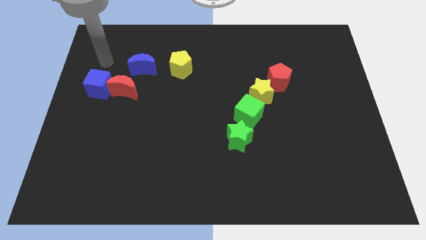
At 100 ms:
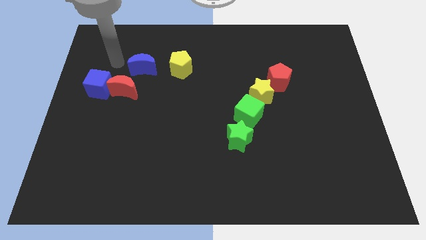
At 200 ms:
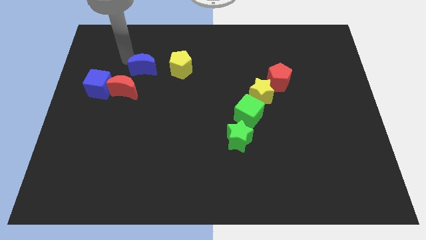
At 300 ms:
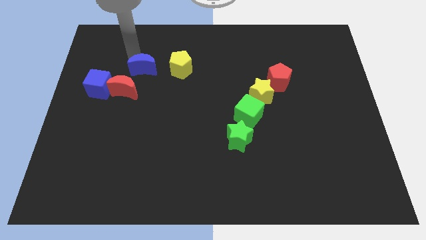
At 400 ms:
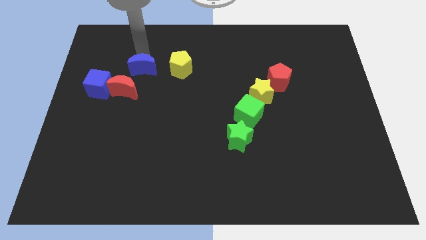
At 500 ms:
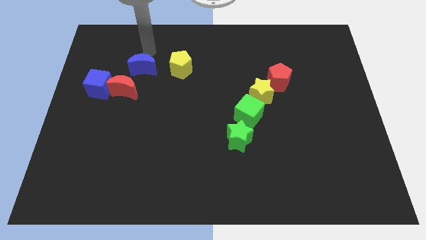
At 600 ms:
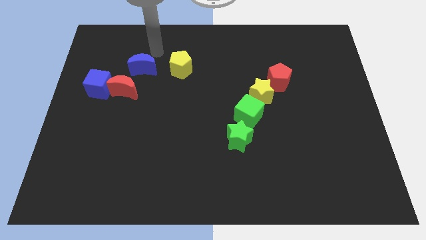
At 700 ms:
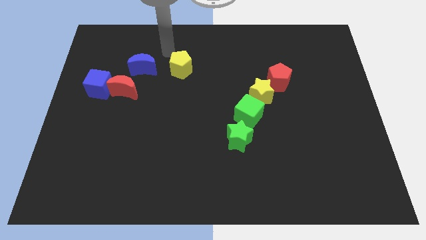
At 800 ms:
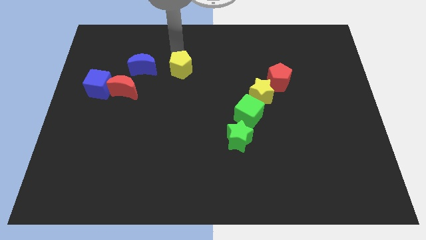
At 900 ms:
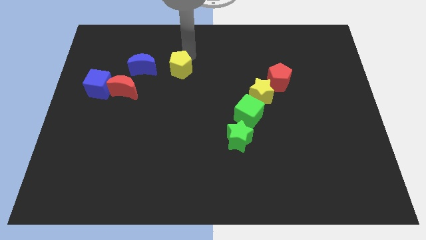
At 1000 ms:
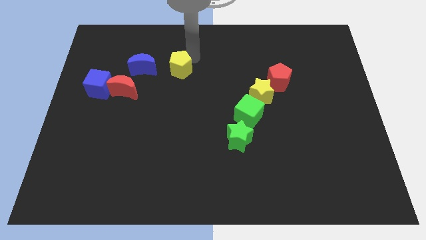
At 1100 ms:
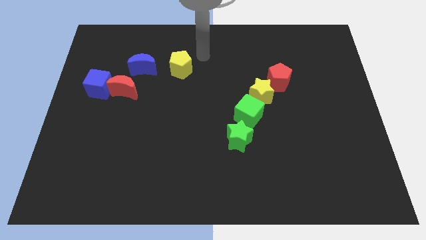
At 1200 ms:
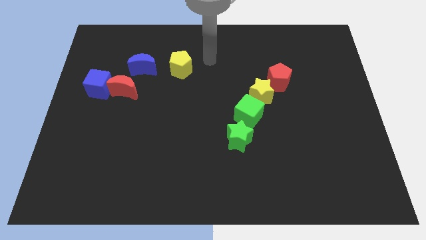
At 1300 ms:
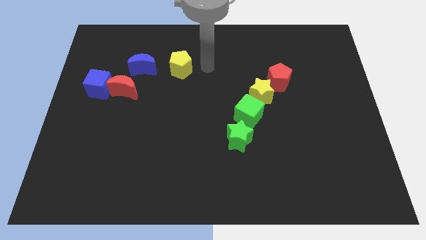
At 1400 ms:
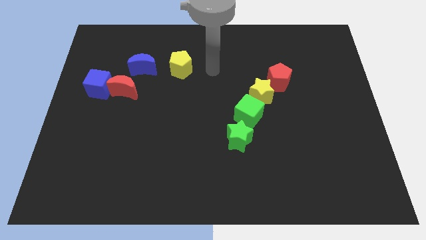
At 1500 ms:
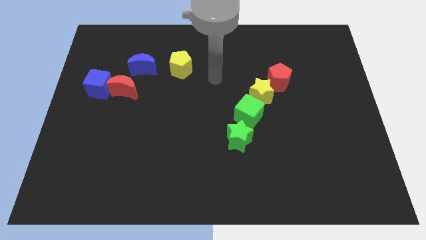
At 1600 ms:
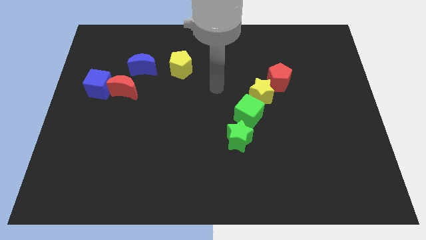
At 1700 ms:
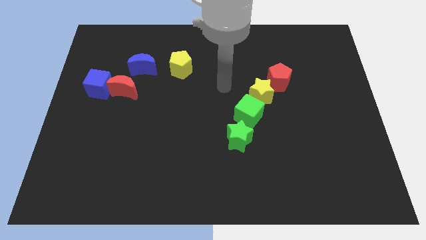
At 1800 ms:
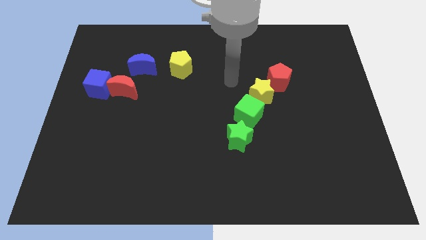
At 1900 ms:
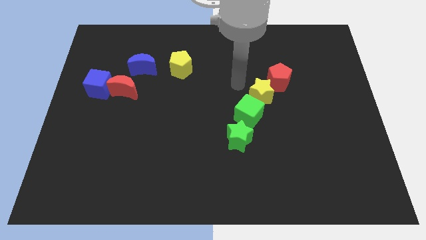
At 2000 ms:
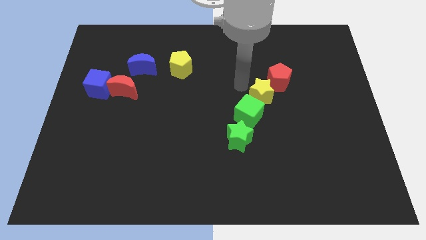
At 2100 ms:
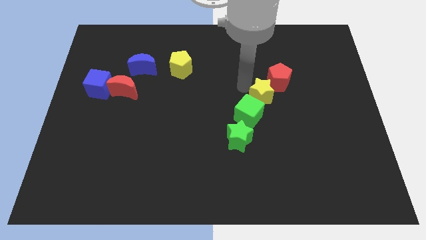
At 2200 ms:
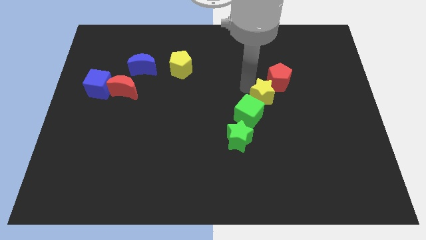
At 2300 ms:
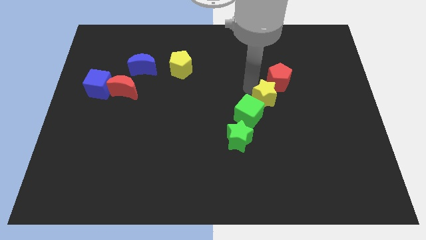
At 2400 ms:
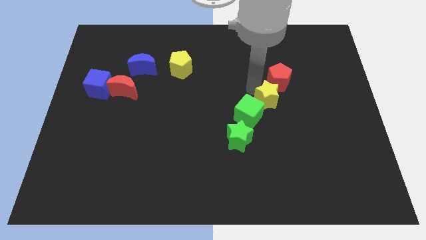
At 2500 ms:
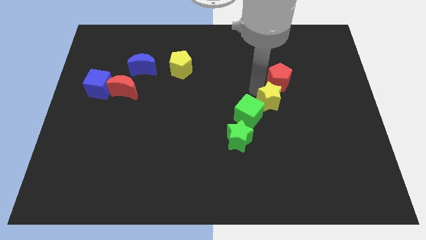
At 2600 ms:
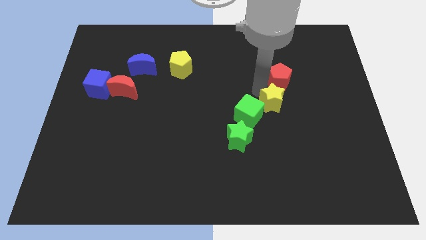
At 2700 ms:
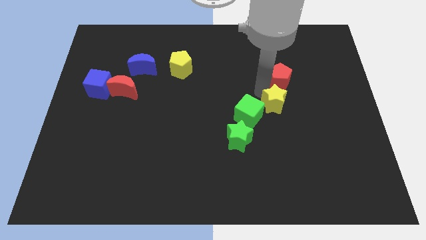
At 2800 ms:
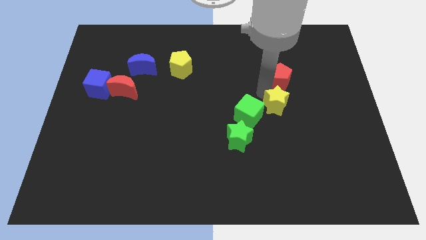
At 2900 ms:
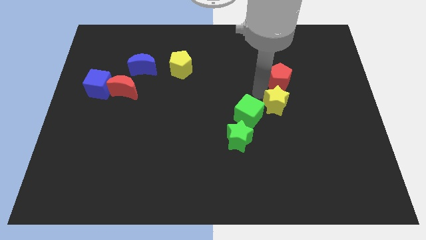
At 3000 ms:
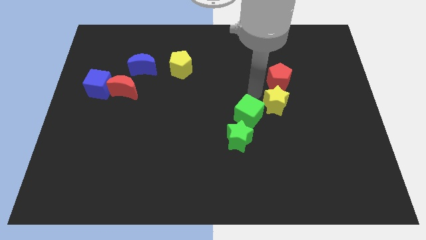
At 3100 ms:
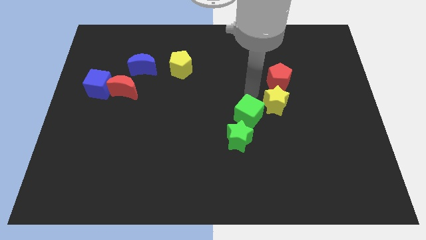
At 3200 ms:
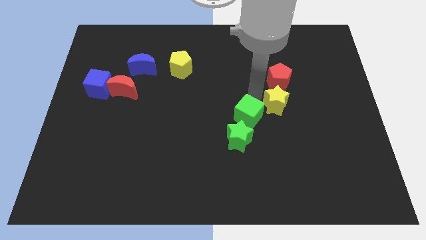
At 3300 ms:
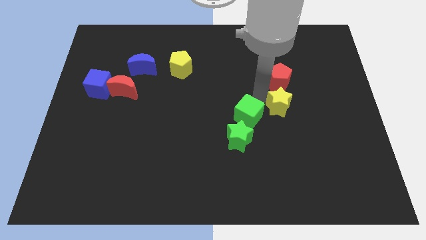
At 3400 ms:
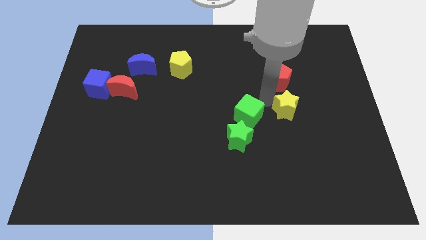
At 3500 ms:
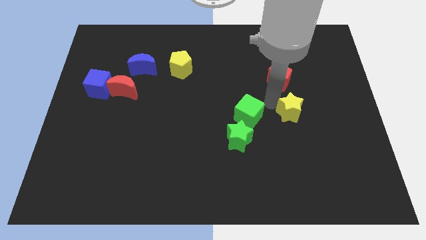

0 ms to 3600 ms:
push the yellow star somewhat downwards and right diagonally

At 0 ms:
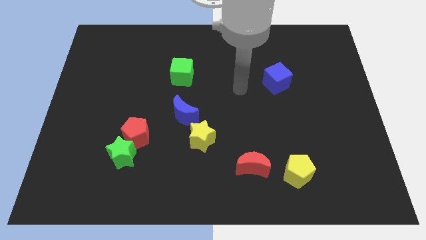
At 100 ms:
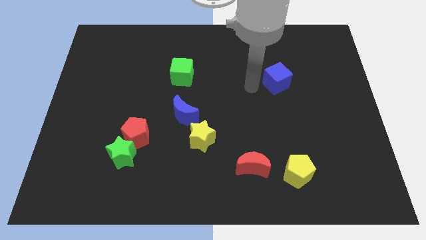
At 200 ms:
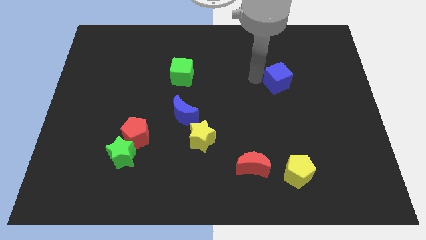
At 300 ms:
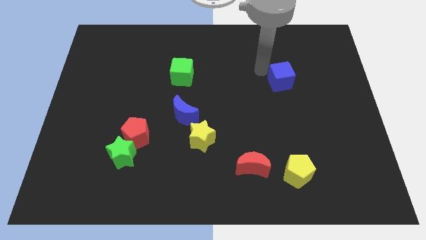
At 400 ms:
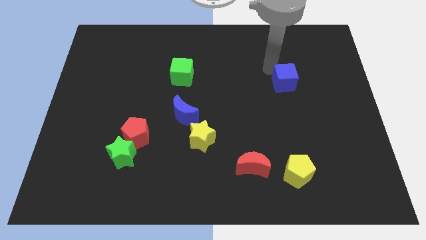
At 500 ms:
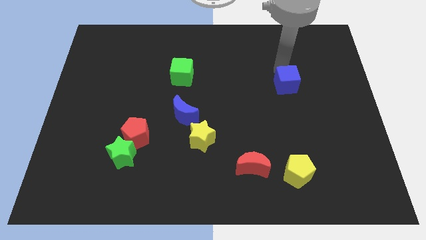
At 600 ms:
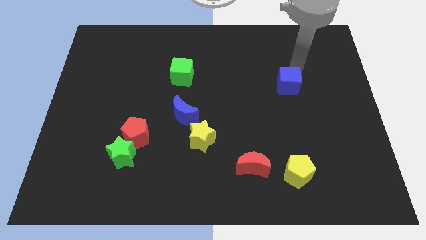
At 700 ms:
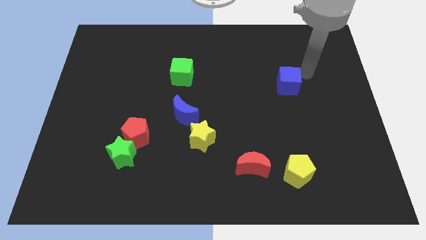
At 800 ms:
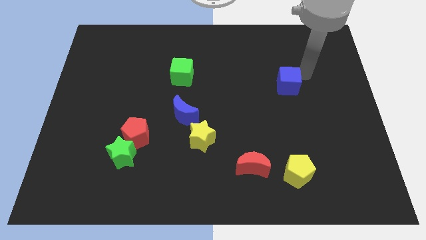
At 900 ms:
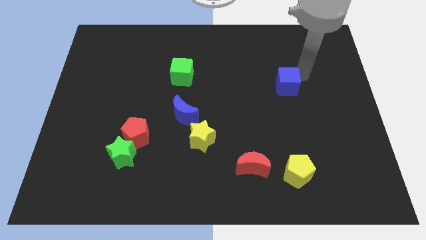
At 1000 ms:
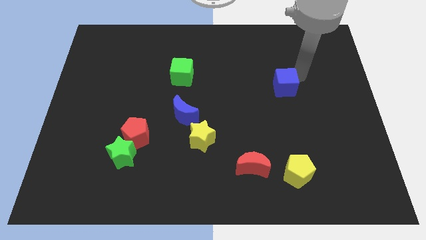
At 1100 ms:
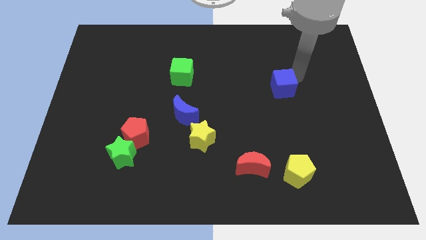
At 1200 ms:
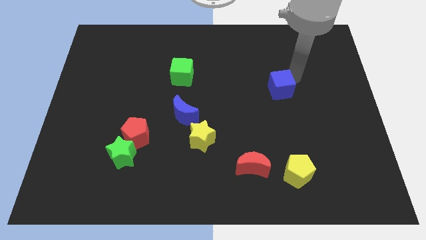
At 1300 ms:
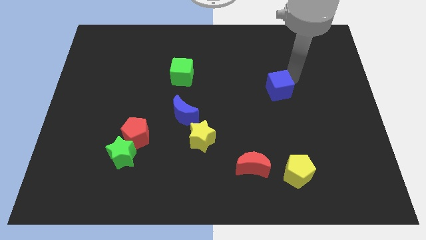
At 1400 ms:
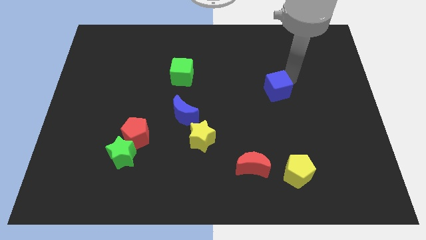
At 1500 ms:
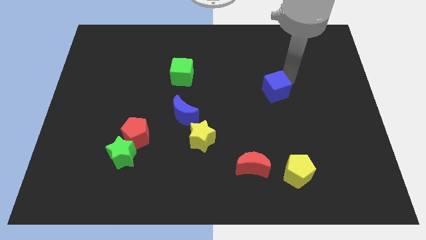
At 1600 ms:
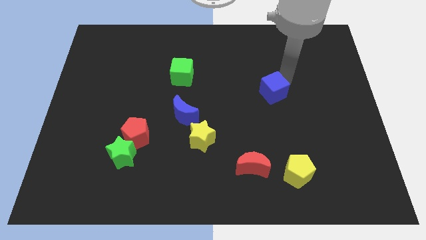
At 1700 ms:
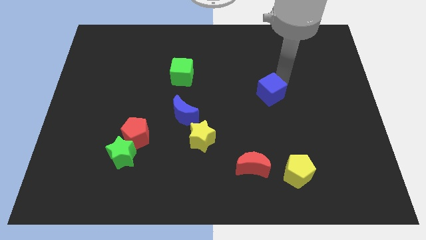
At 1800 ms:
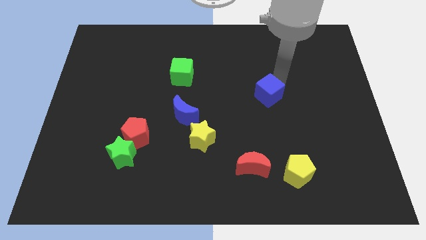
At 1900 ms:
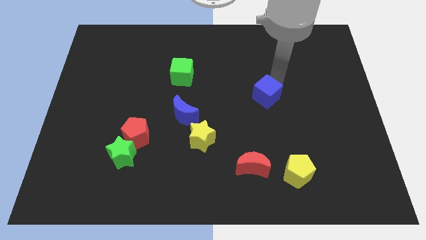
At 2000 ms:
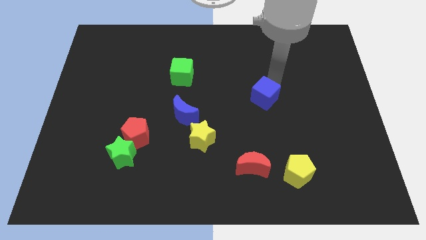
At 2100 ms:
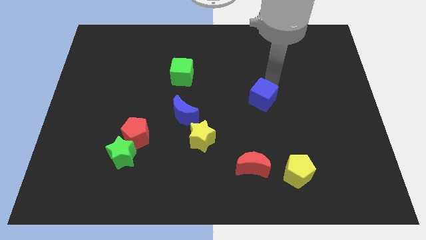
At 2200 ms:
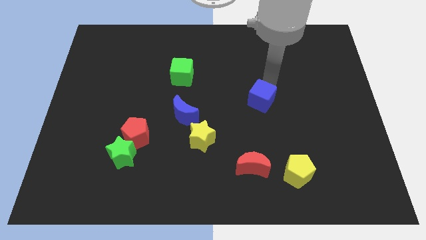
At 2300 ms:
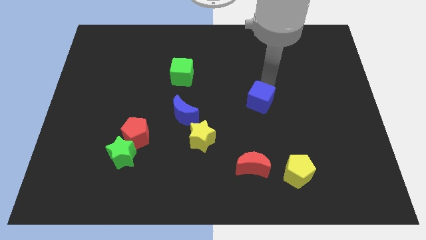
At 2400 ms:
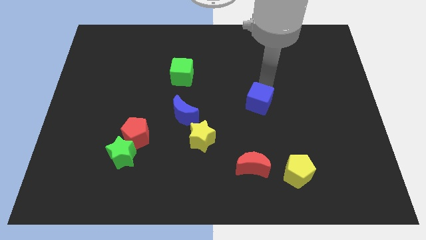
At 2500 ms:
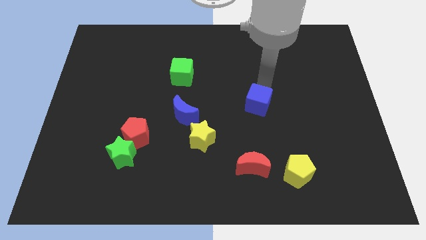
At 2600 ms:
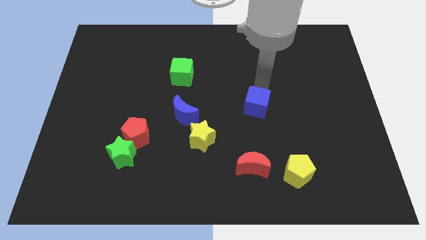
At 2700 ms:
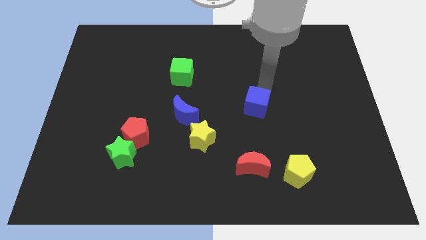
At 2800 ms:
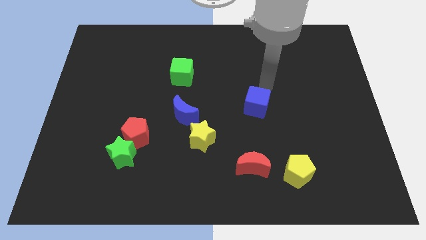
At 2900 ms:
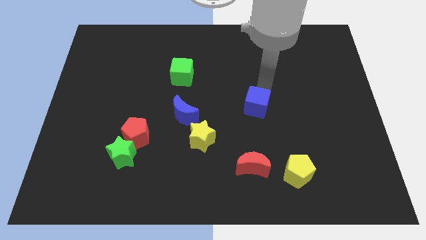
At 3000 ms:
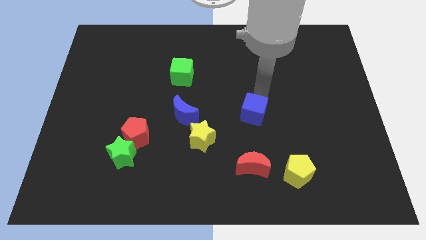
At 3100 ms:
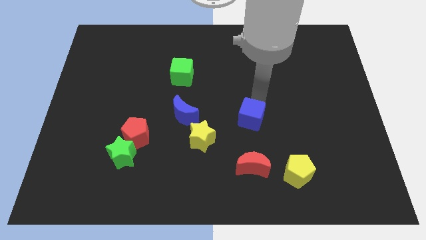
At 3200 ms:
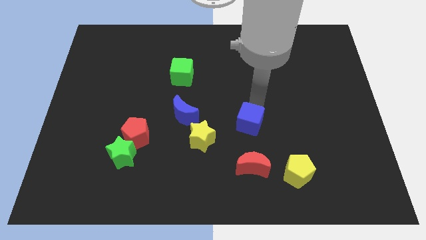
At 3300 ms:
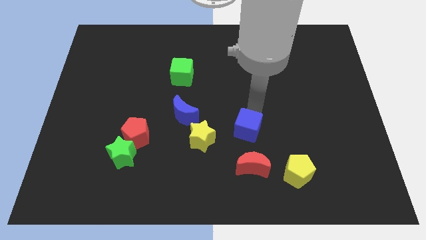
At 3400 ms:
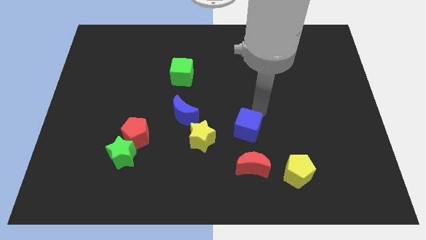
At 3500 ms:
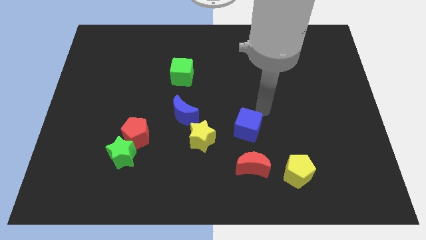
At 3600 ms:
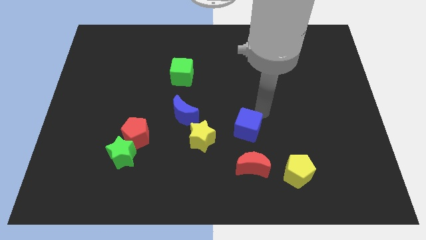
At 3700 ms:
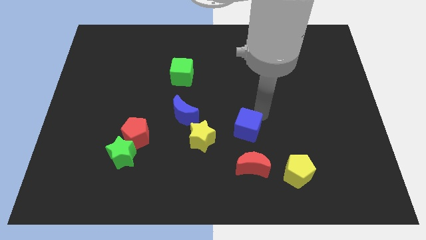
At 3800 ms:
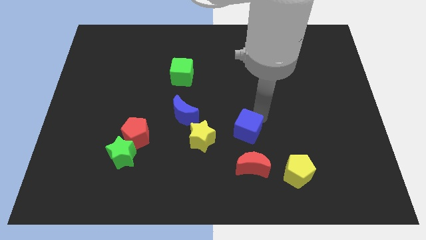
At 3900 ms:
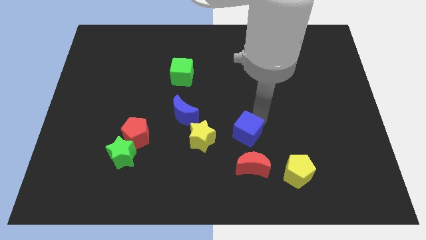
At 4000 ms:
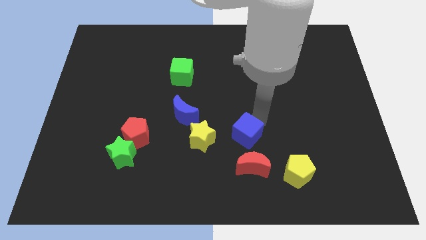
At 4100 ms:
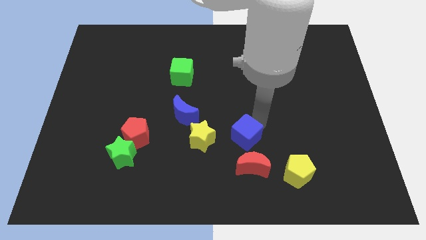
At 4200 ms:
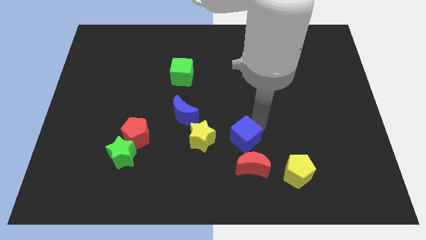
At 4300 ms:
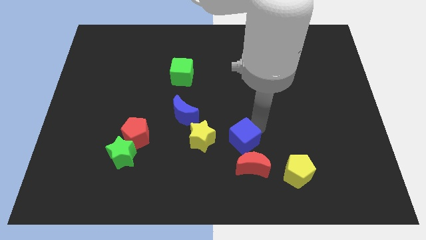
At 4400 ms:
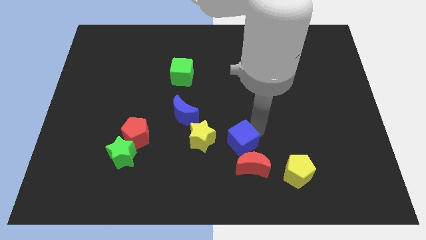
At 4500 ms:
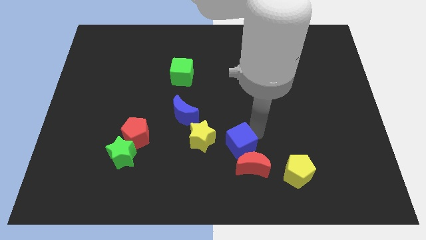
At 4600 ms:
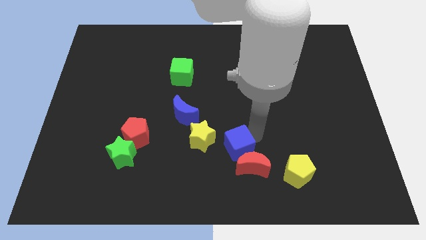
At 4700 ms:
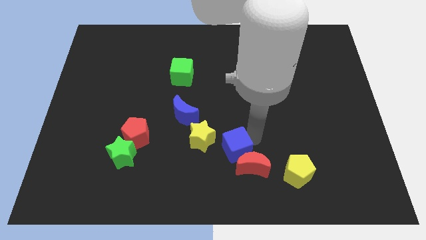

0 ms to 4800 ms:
slide the blue cube downwards and then left
